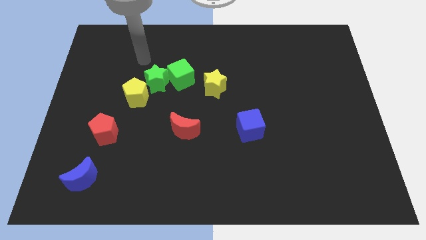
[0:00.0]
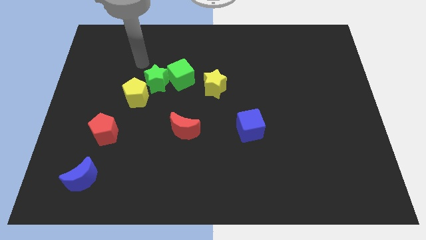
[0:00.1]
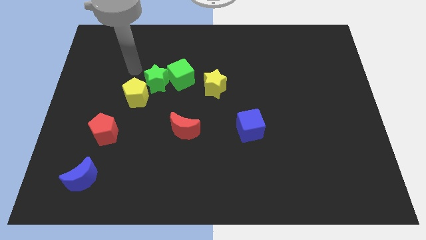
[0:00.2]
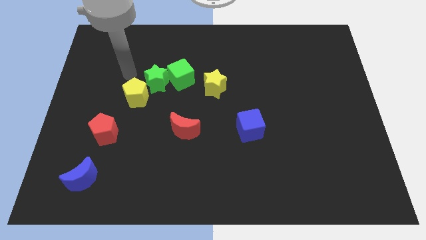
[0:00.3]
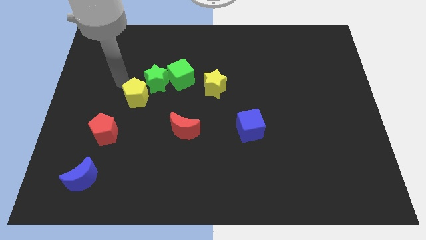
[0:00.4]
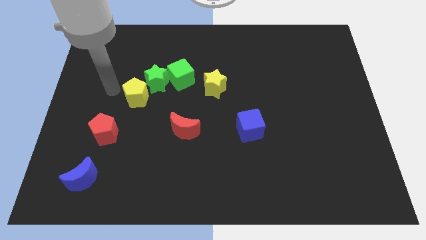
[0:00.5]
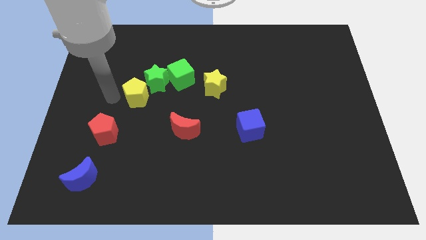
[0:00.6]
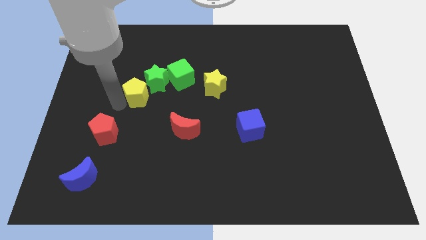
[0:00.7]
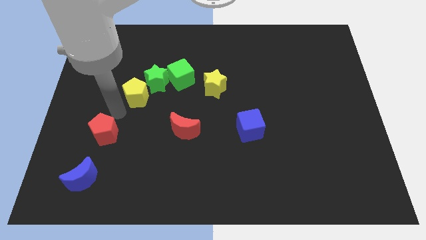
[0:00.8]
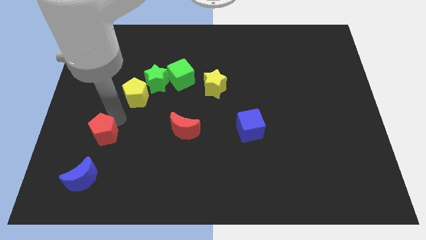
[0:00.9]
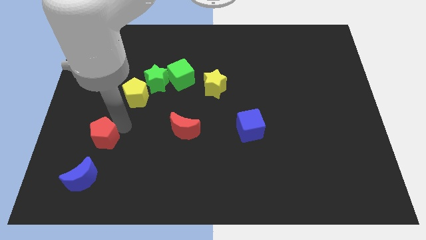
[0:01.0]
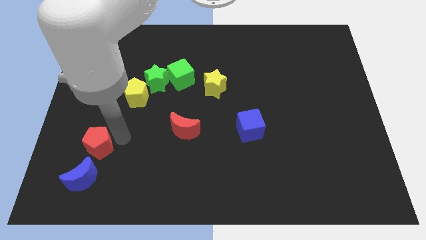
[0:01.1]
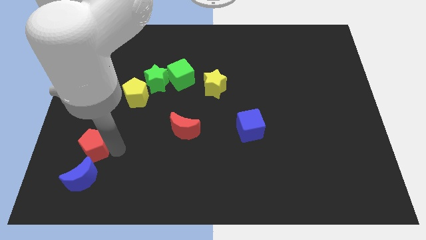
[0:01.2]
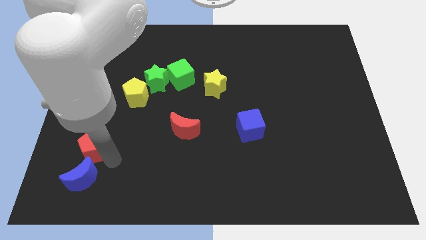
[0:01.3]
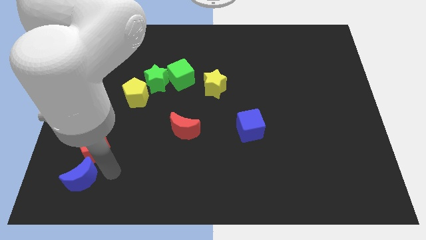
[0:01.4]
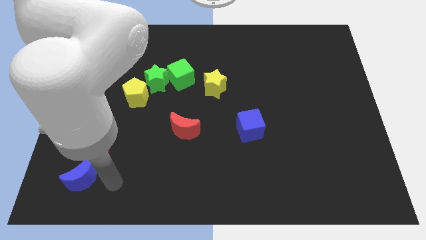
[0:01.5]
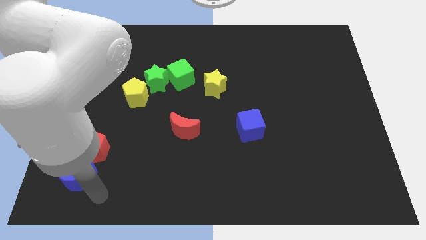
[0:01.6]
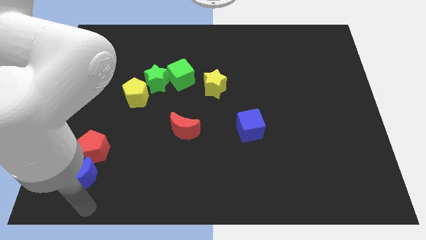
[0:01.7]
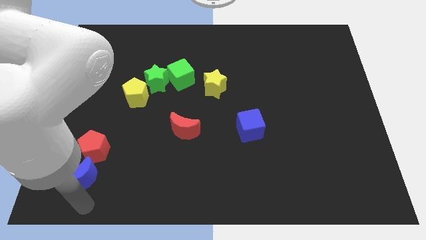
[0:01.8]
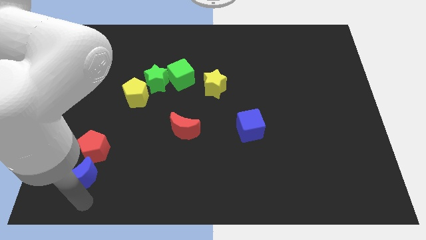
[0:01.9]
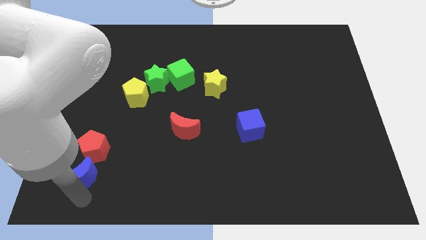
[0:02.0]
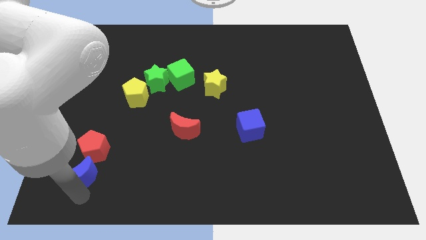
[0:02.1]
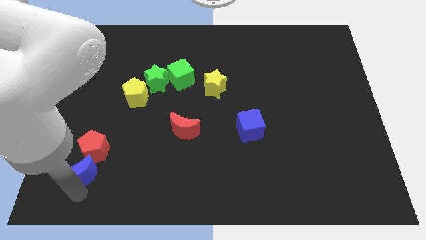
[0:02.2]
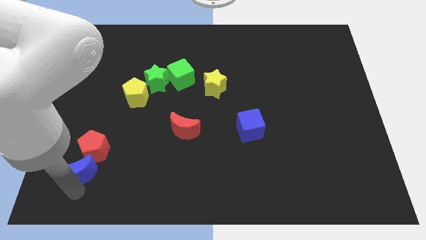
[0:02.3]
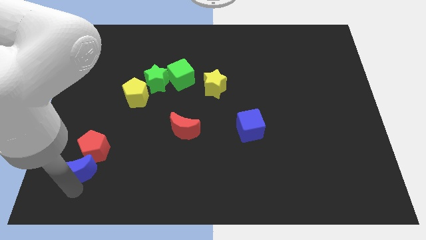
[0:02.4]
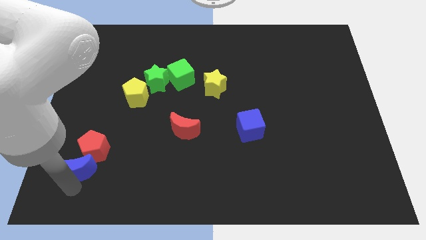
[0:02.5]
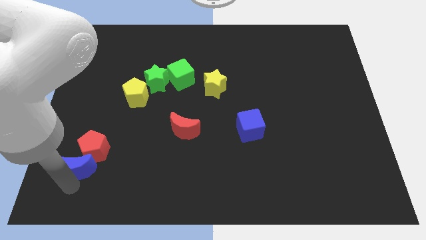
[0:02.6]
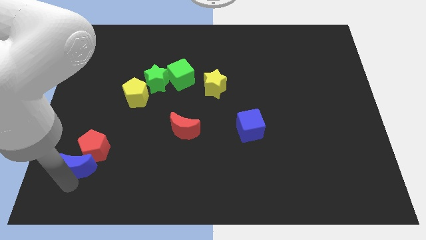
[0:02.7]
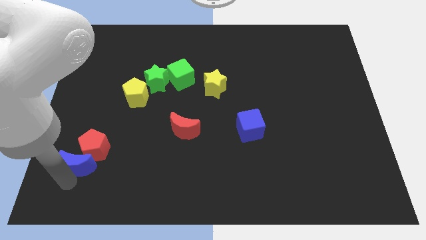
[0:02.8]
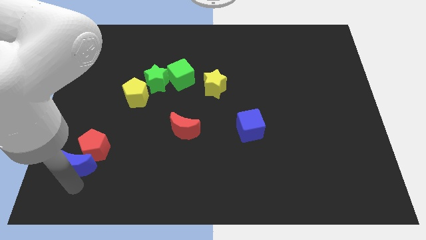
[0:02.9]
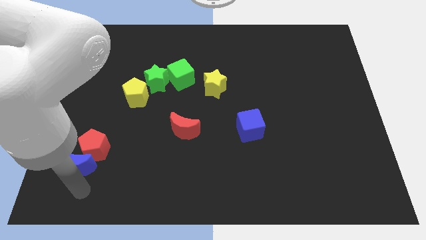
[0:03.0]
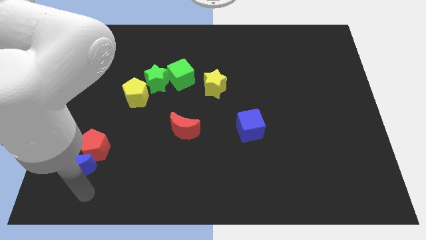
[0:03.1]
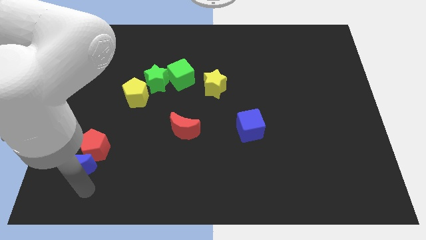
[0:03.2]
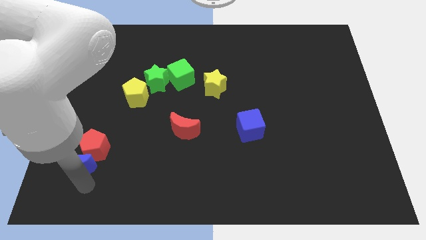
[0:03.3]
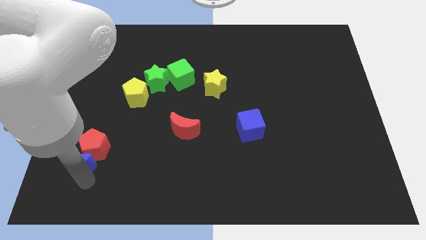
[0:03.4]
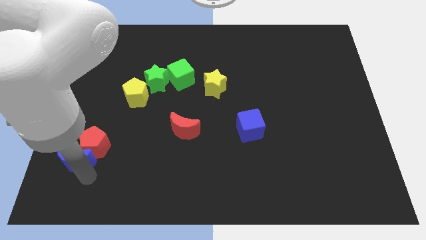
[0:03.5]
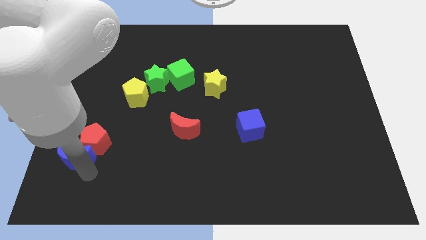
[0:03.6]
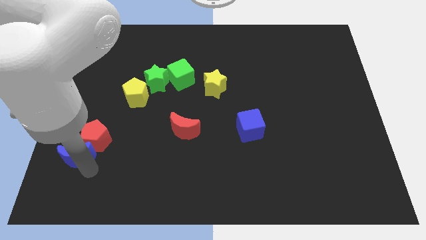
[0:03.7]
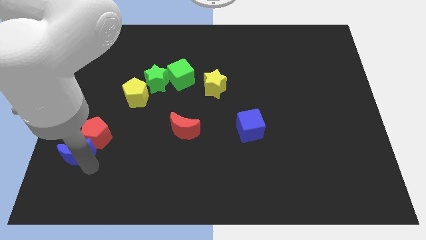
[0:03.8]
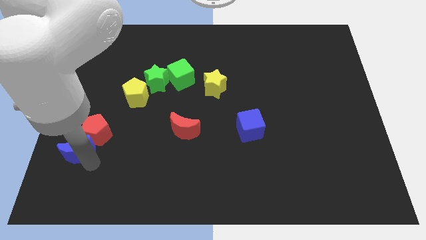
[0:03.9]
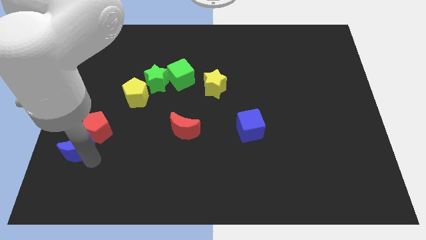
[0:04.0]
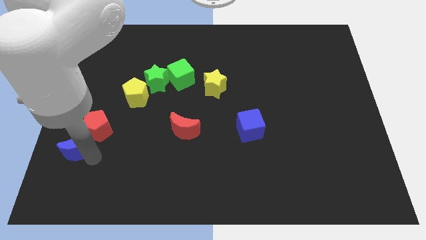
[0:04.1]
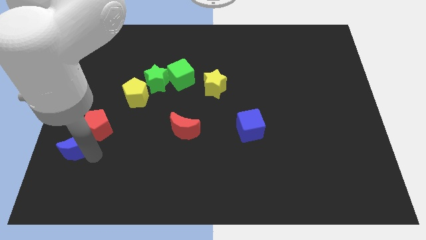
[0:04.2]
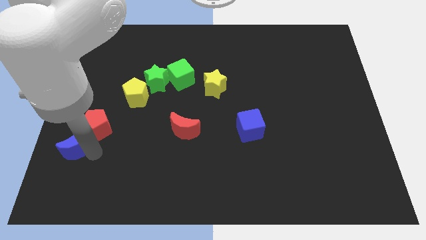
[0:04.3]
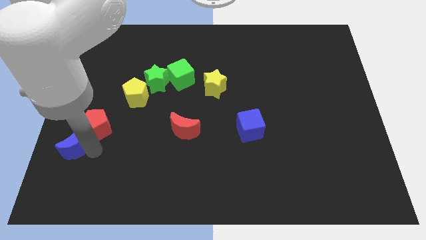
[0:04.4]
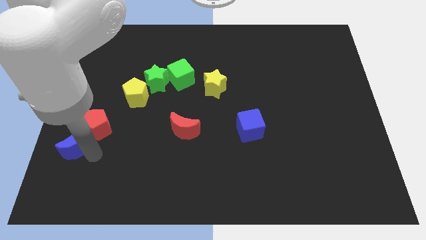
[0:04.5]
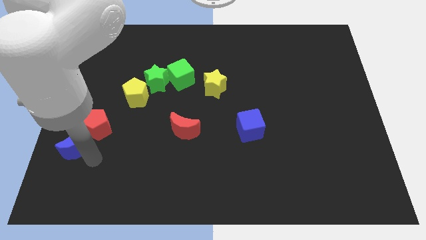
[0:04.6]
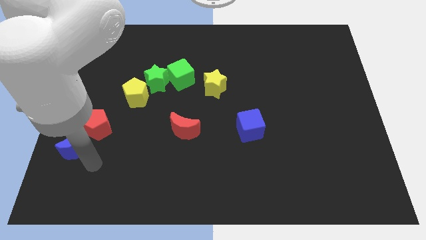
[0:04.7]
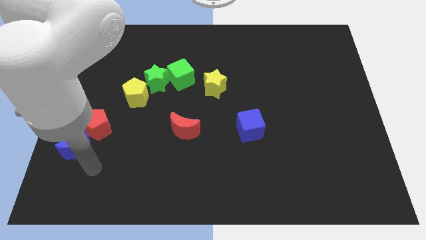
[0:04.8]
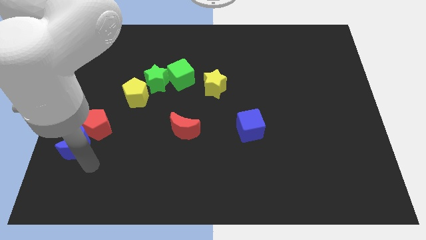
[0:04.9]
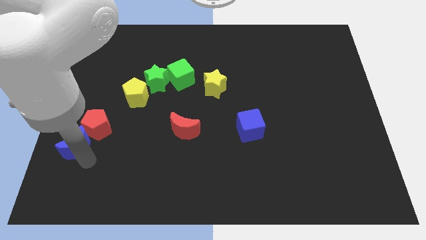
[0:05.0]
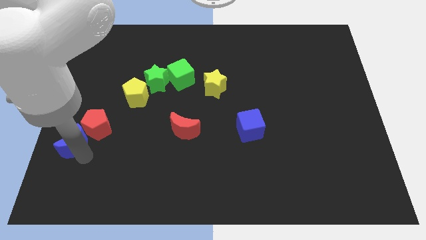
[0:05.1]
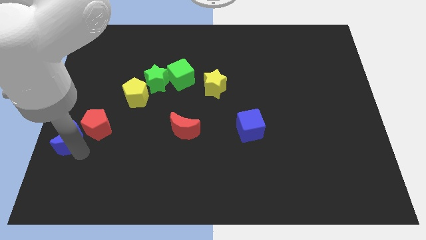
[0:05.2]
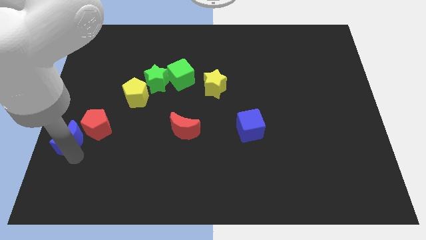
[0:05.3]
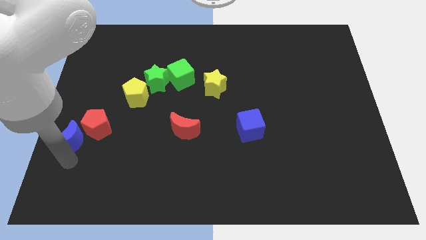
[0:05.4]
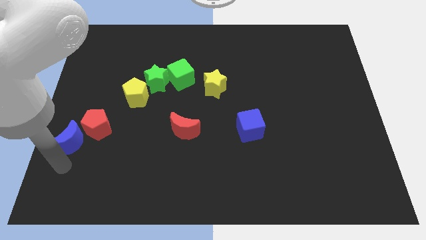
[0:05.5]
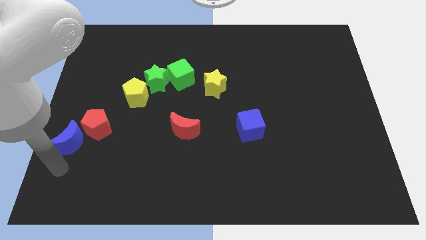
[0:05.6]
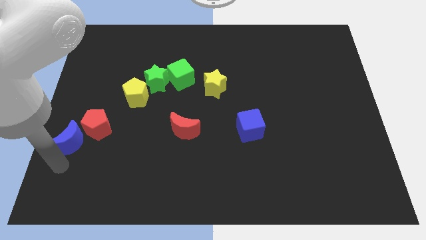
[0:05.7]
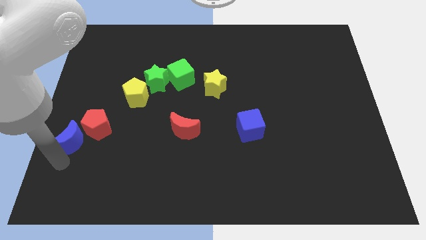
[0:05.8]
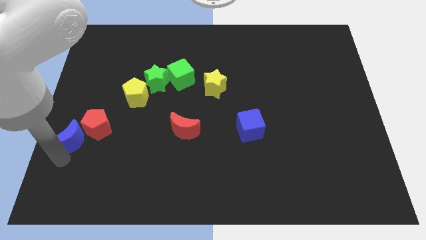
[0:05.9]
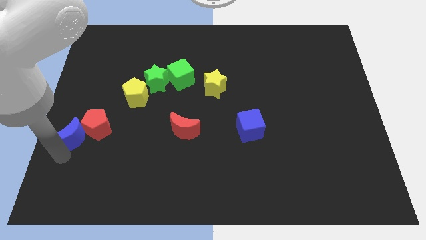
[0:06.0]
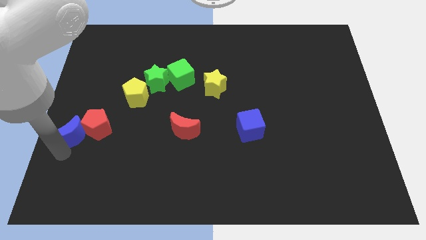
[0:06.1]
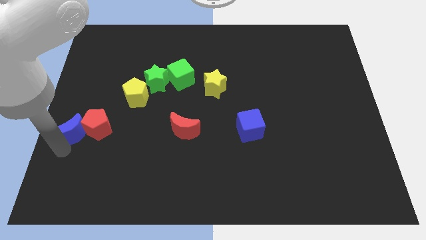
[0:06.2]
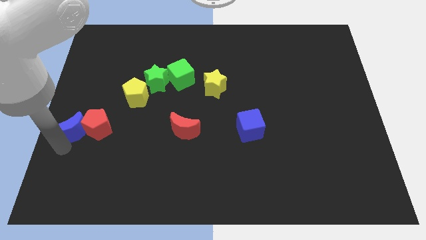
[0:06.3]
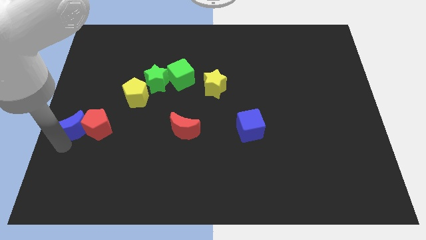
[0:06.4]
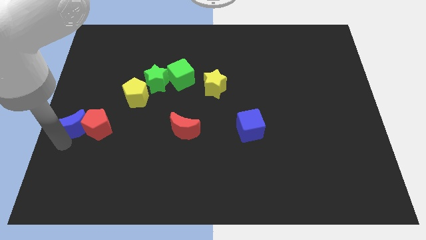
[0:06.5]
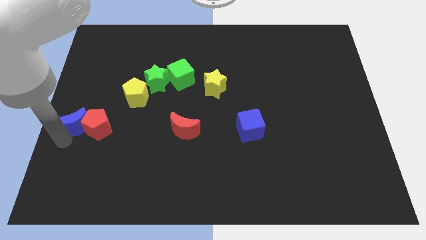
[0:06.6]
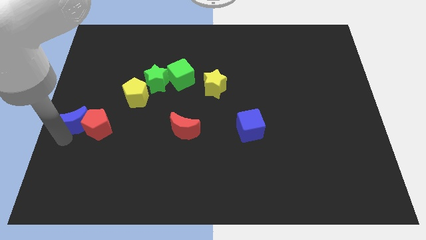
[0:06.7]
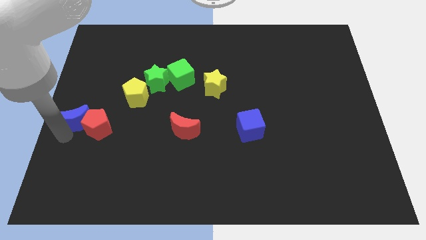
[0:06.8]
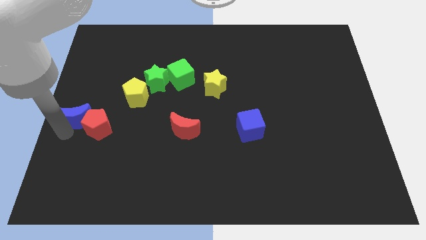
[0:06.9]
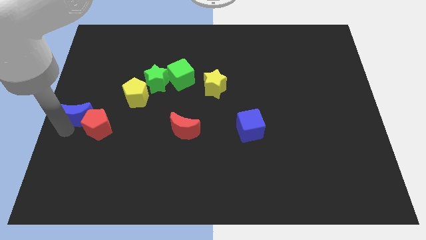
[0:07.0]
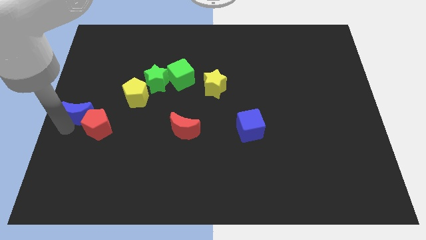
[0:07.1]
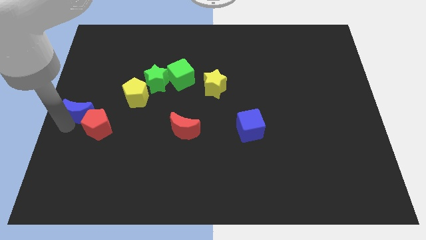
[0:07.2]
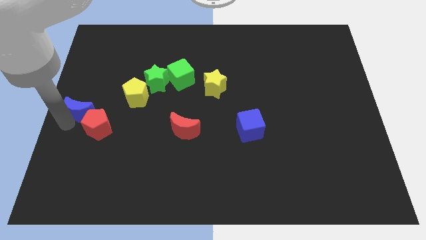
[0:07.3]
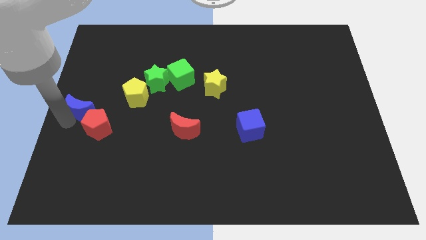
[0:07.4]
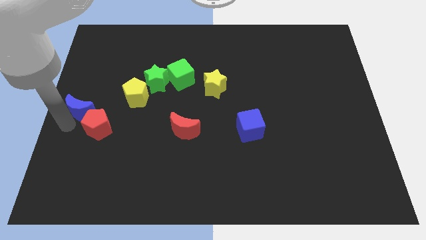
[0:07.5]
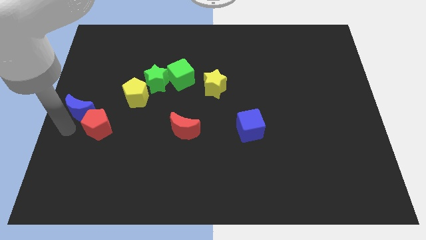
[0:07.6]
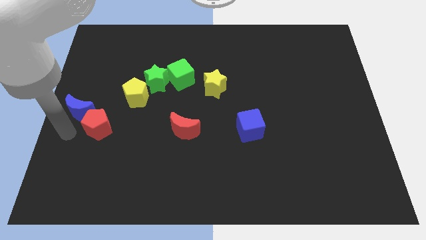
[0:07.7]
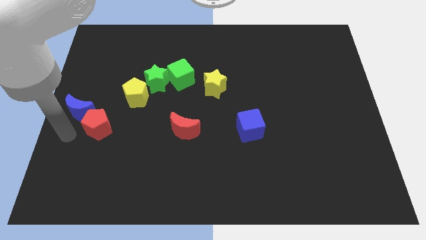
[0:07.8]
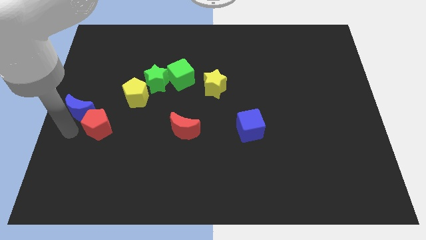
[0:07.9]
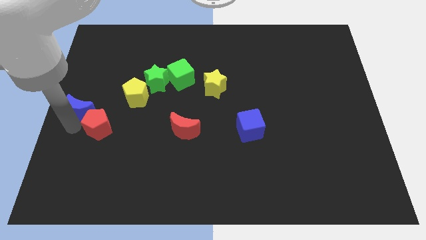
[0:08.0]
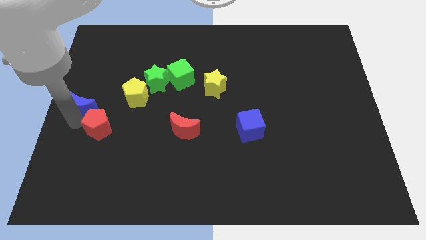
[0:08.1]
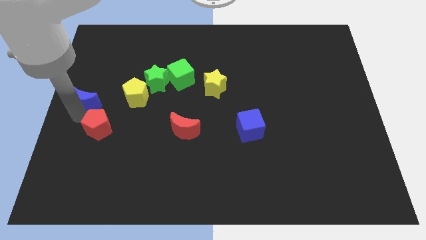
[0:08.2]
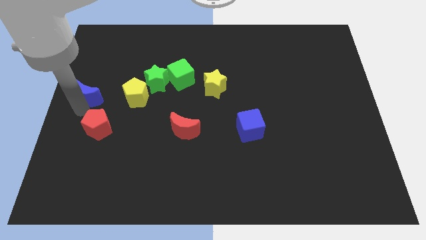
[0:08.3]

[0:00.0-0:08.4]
move the blue moon up
